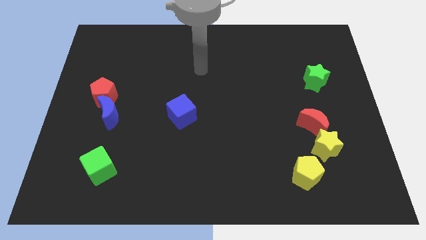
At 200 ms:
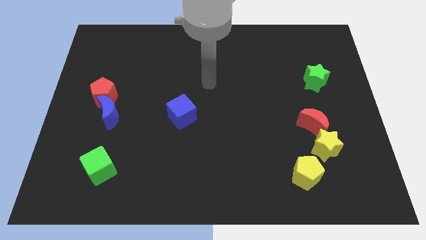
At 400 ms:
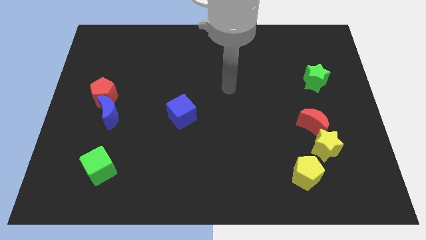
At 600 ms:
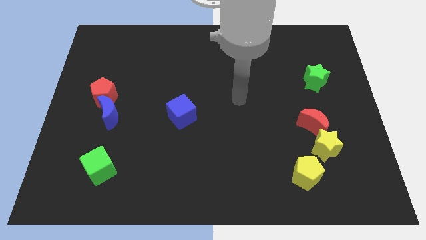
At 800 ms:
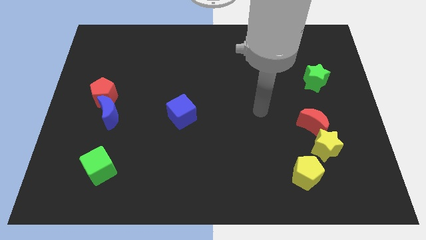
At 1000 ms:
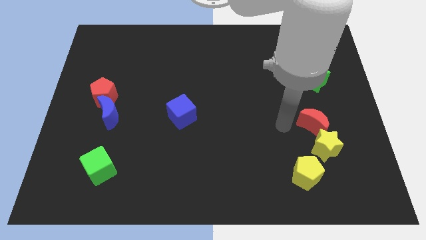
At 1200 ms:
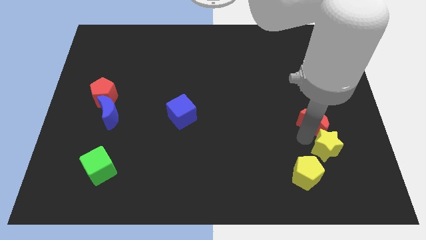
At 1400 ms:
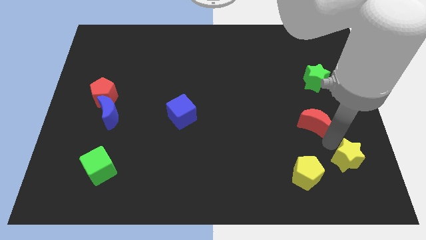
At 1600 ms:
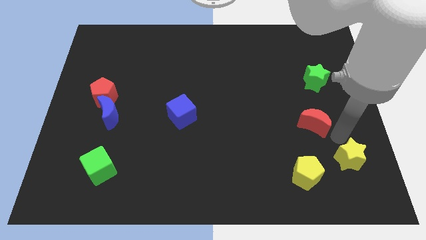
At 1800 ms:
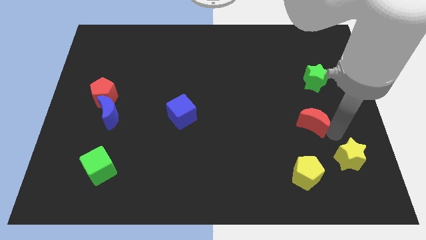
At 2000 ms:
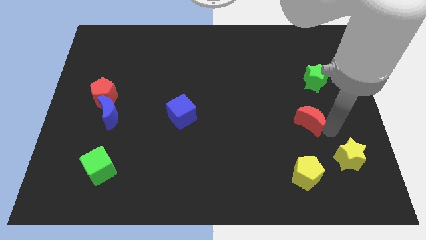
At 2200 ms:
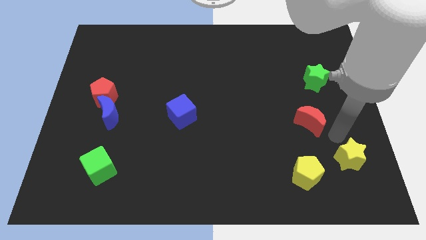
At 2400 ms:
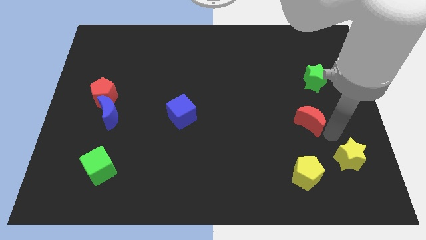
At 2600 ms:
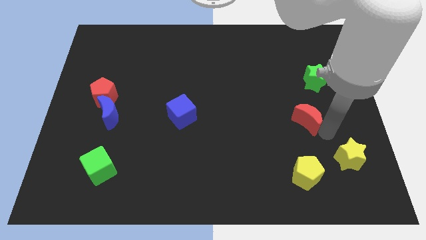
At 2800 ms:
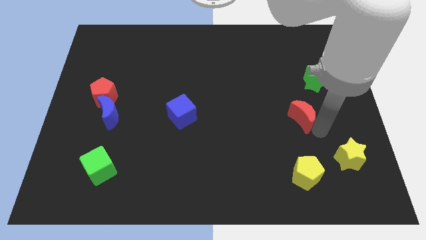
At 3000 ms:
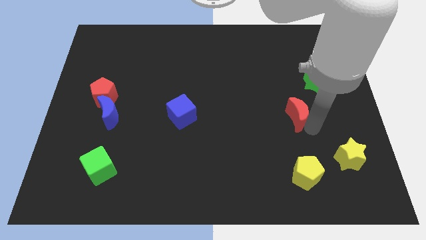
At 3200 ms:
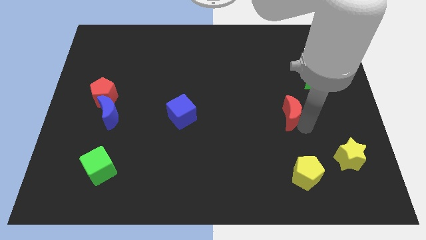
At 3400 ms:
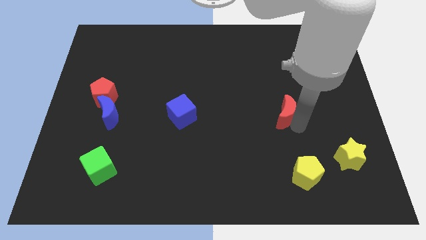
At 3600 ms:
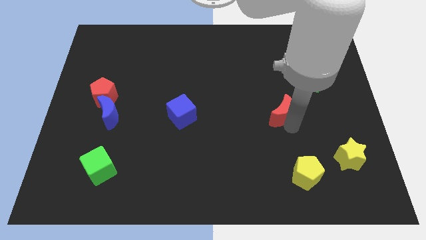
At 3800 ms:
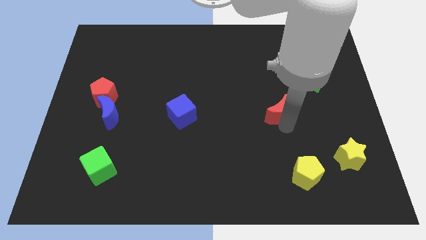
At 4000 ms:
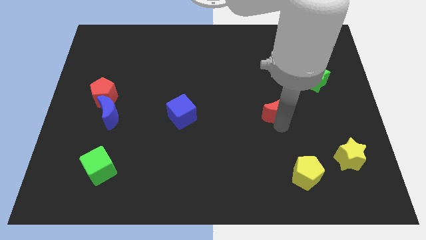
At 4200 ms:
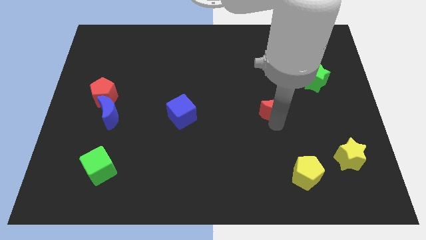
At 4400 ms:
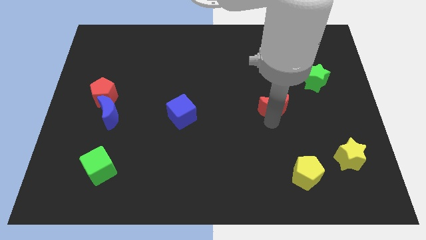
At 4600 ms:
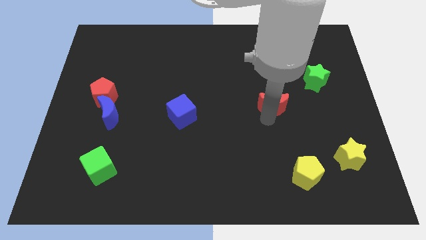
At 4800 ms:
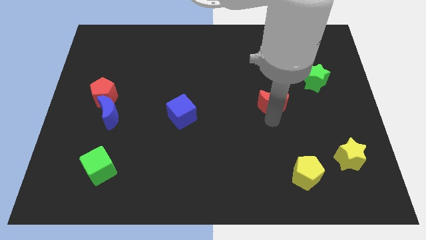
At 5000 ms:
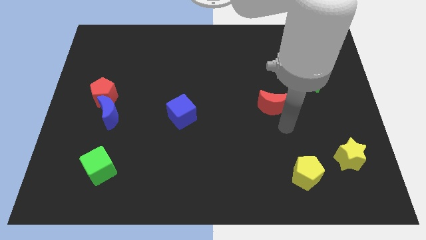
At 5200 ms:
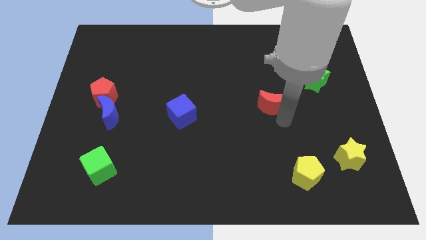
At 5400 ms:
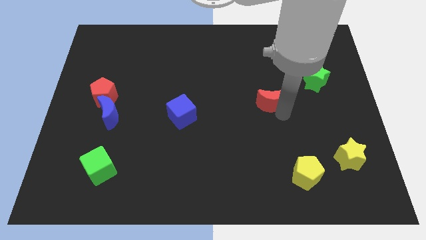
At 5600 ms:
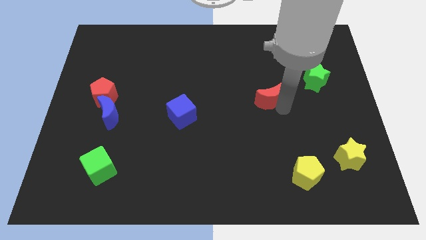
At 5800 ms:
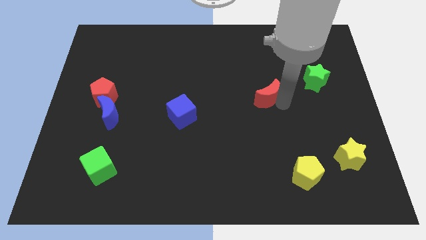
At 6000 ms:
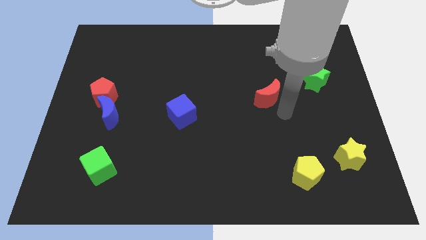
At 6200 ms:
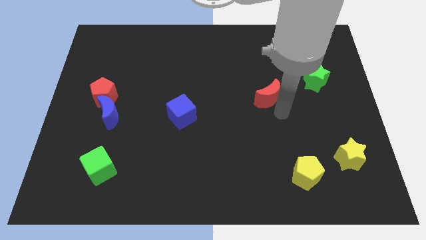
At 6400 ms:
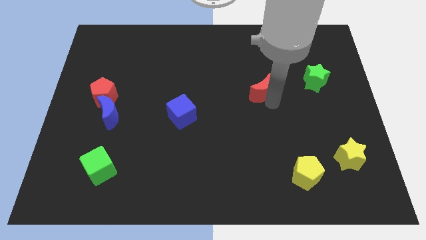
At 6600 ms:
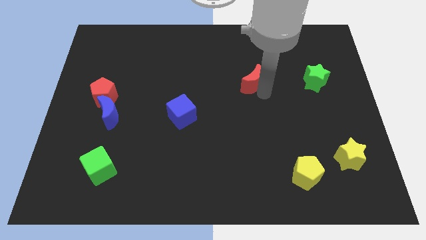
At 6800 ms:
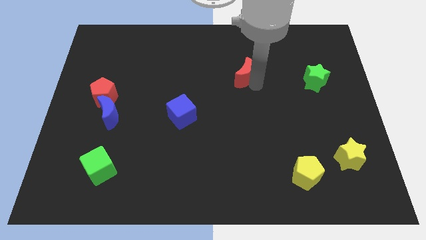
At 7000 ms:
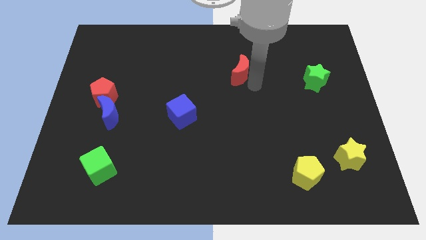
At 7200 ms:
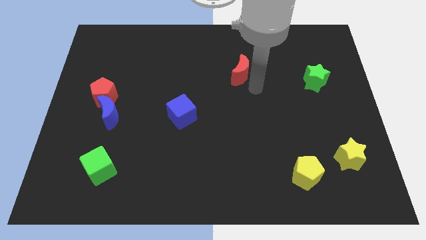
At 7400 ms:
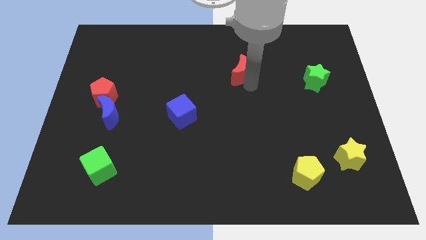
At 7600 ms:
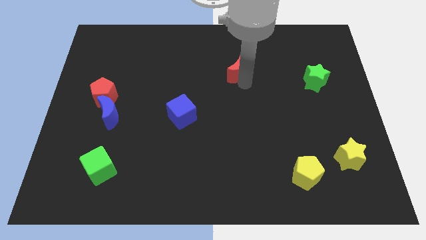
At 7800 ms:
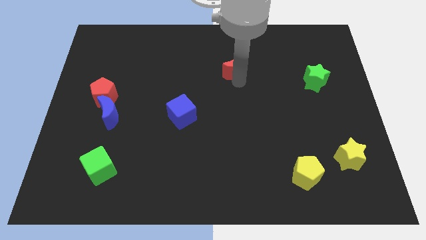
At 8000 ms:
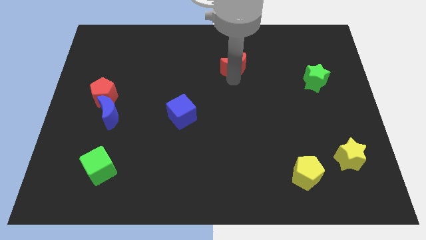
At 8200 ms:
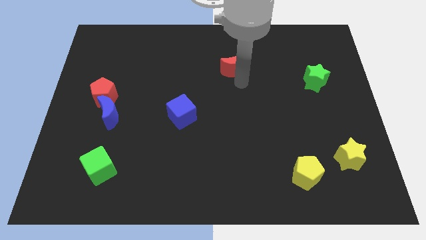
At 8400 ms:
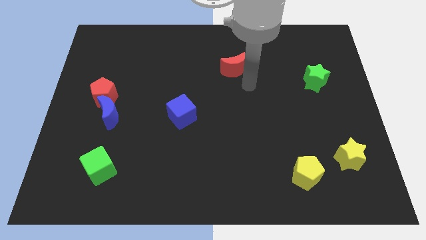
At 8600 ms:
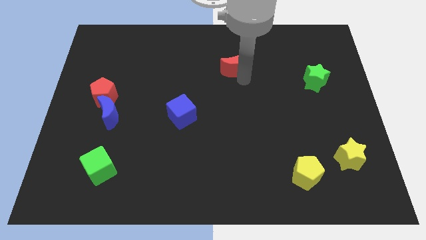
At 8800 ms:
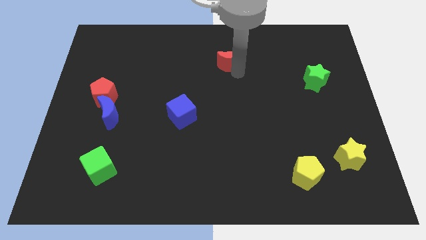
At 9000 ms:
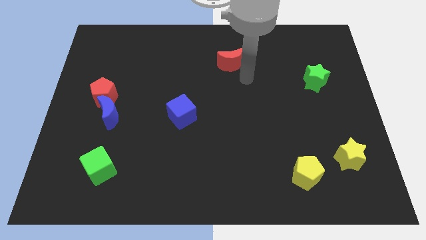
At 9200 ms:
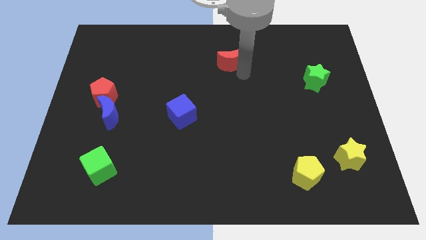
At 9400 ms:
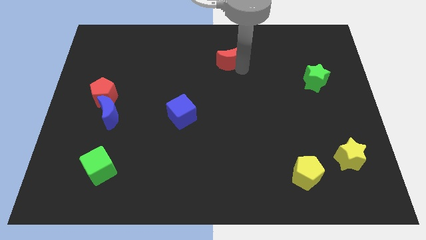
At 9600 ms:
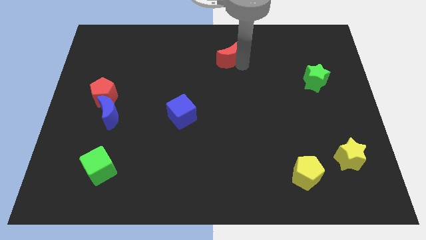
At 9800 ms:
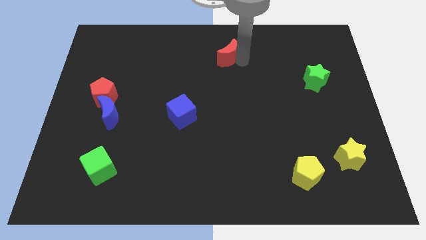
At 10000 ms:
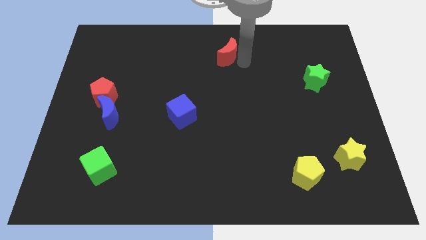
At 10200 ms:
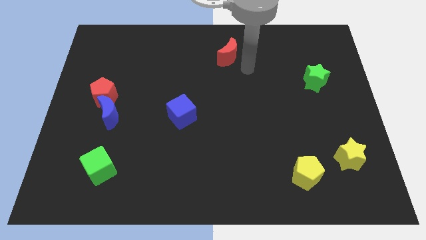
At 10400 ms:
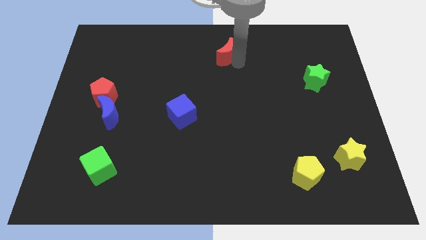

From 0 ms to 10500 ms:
move the red moon to the towards your base

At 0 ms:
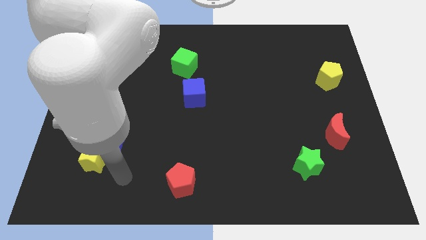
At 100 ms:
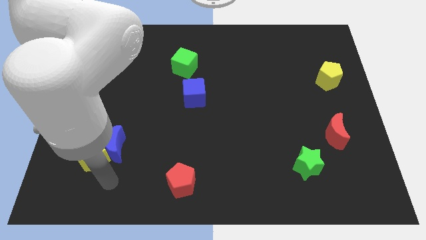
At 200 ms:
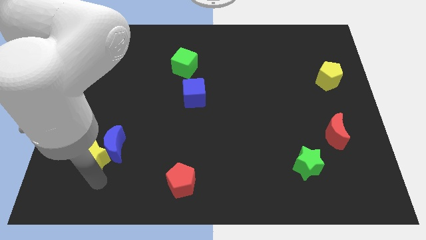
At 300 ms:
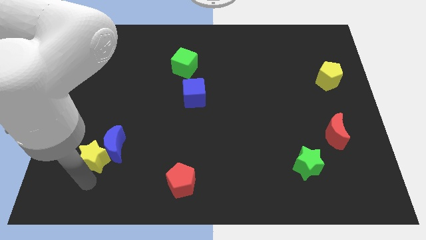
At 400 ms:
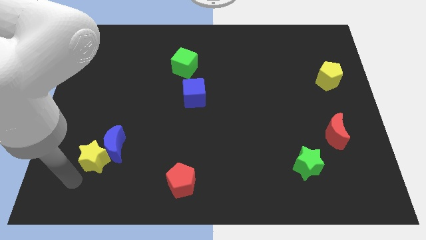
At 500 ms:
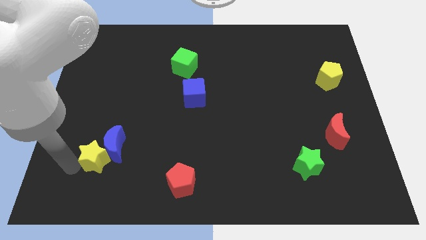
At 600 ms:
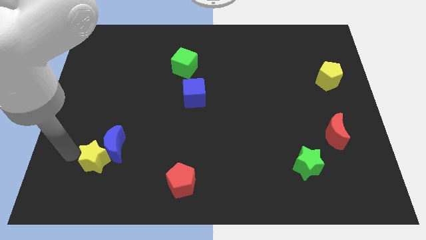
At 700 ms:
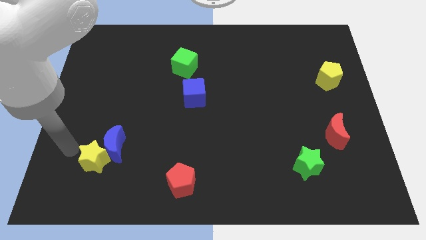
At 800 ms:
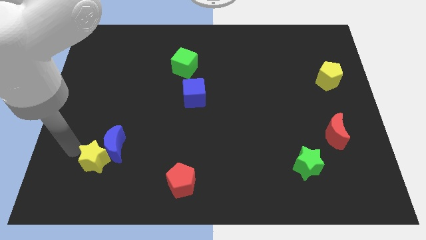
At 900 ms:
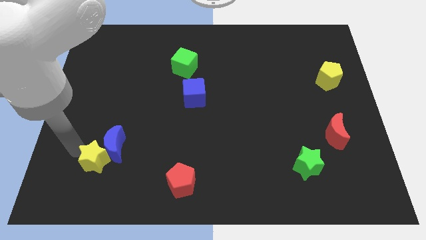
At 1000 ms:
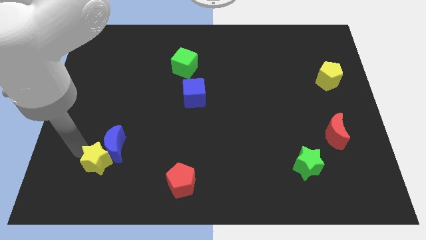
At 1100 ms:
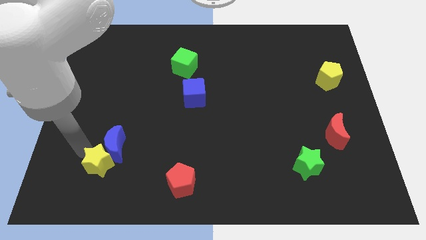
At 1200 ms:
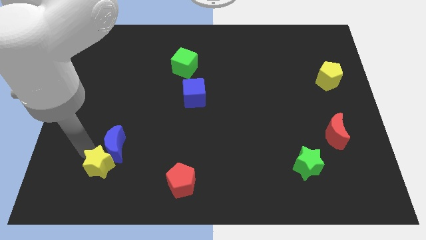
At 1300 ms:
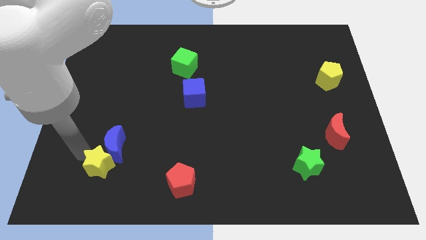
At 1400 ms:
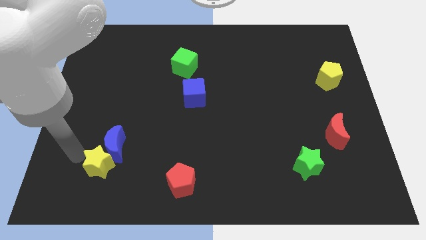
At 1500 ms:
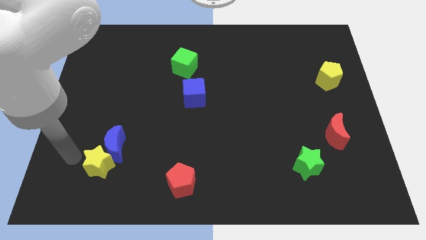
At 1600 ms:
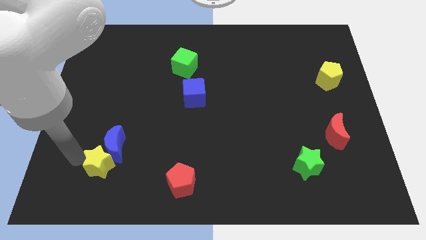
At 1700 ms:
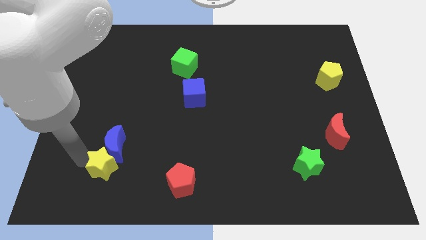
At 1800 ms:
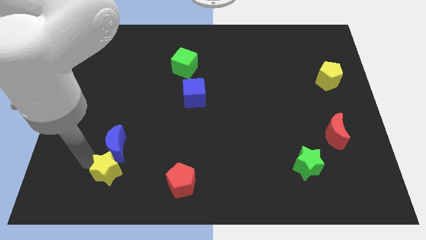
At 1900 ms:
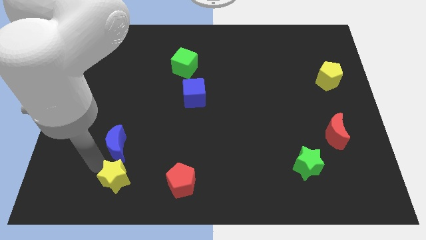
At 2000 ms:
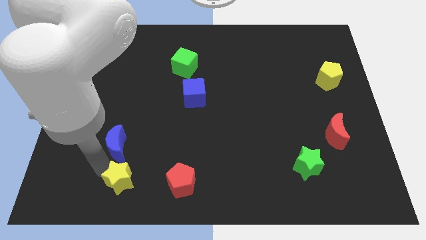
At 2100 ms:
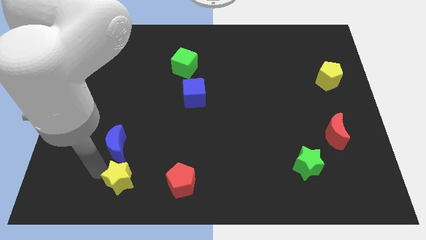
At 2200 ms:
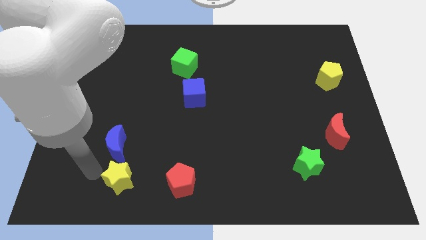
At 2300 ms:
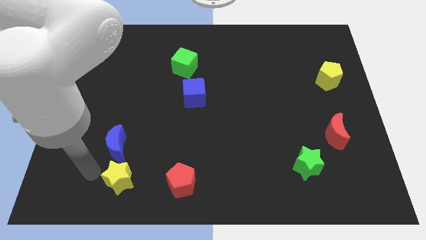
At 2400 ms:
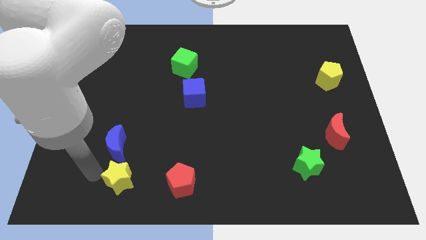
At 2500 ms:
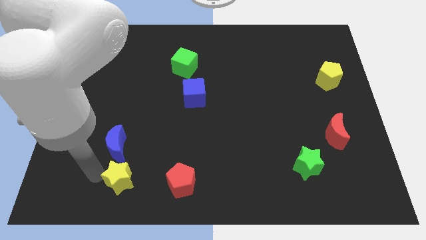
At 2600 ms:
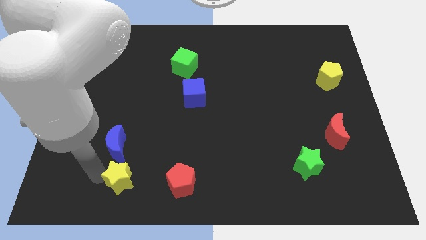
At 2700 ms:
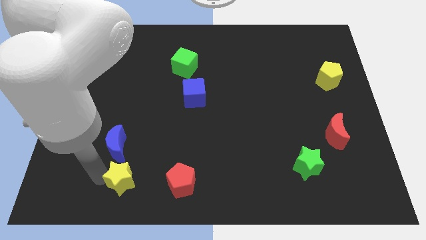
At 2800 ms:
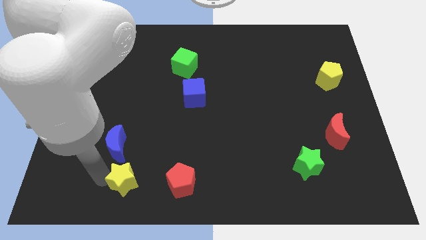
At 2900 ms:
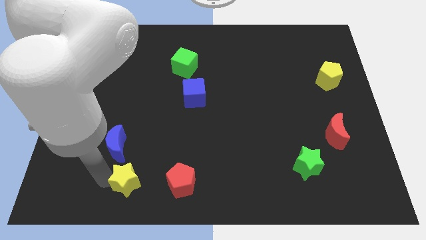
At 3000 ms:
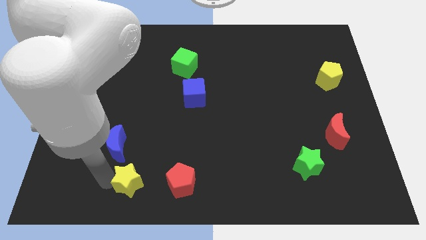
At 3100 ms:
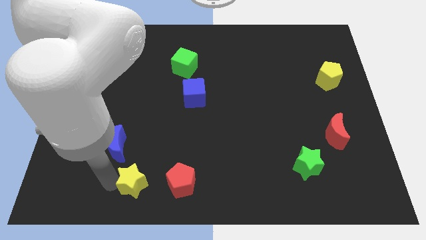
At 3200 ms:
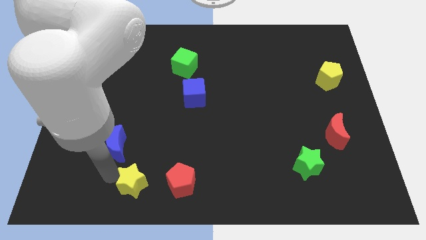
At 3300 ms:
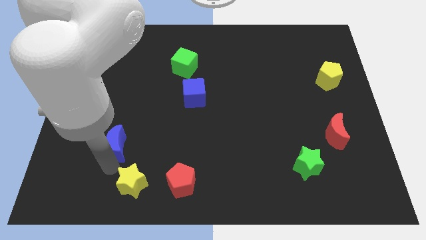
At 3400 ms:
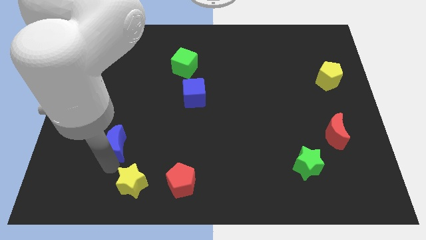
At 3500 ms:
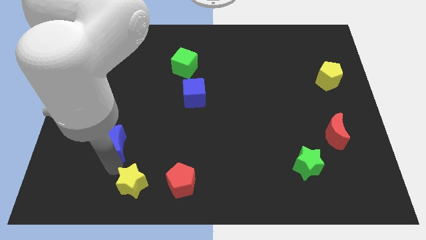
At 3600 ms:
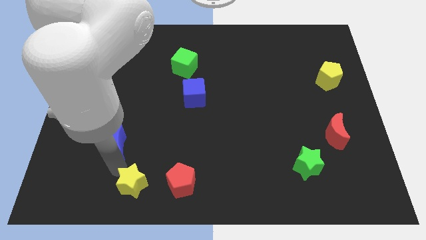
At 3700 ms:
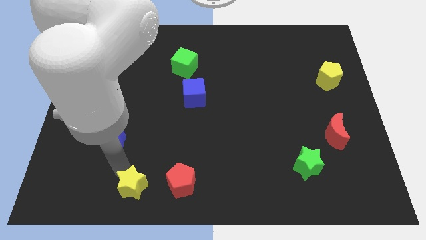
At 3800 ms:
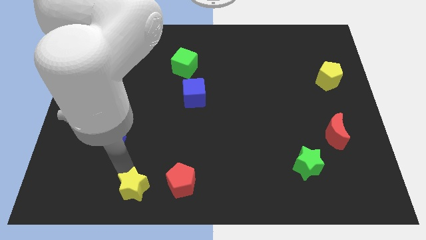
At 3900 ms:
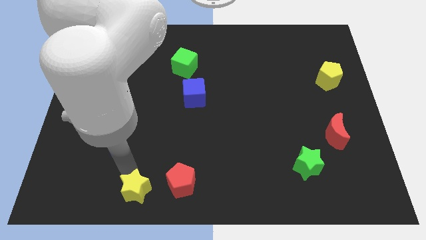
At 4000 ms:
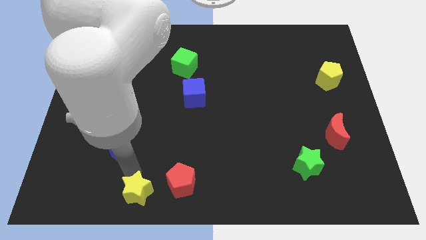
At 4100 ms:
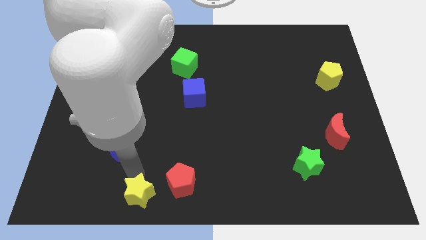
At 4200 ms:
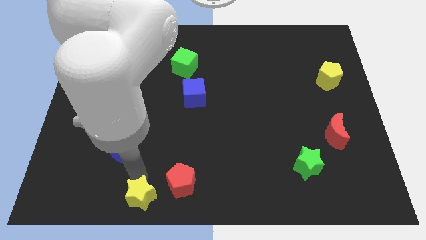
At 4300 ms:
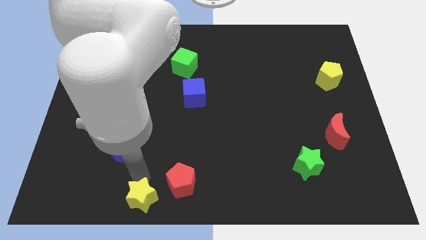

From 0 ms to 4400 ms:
put the yellow star to the bottom side
